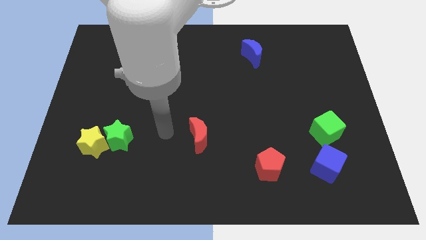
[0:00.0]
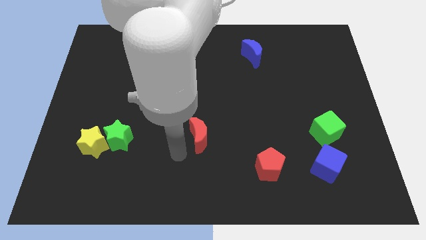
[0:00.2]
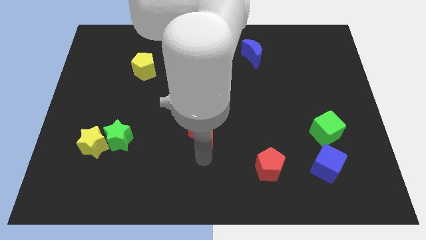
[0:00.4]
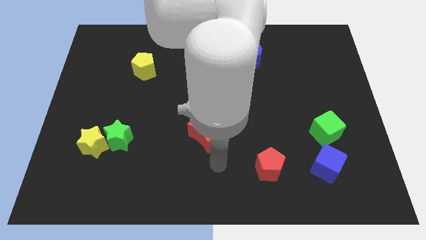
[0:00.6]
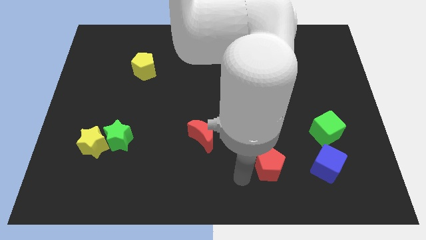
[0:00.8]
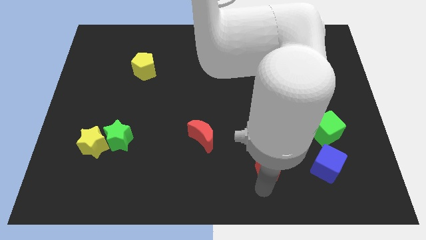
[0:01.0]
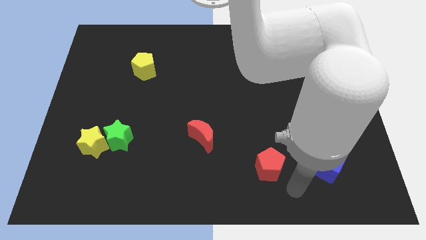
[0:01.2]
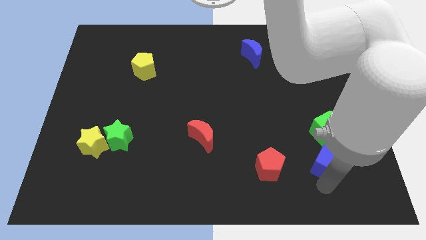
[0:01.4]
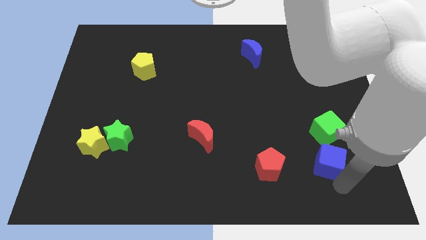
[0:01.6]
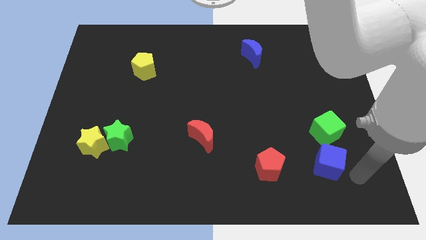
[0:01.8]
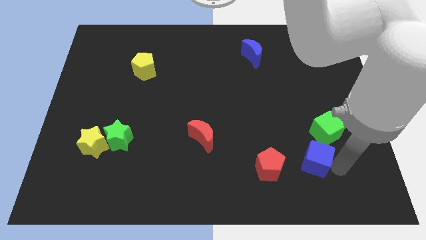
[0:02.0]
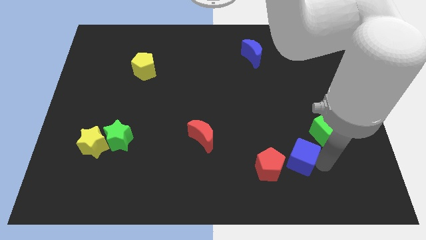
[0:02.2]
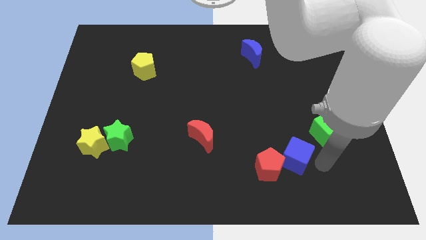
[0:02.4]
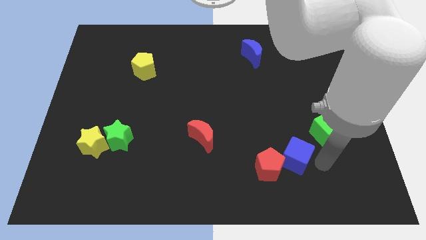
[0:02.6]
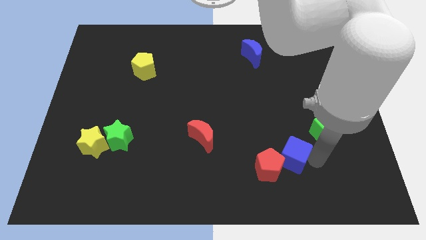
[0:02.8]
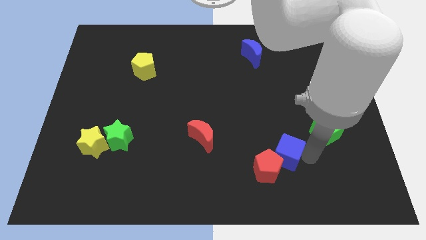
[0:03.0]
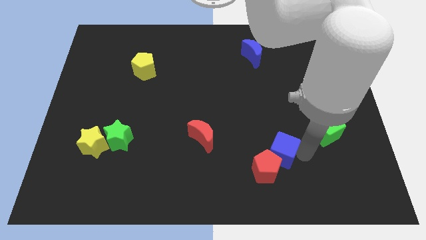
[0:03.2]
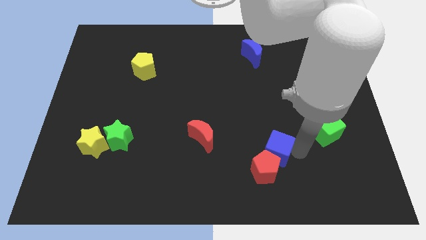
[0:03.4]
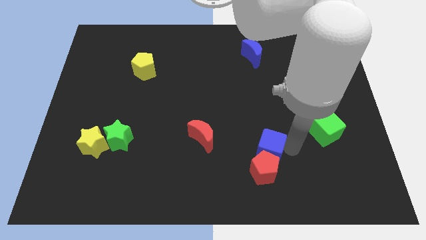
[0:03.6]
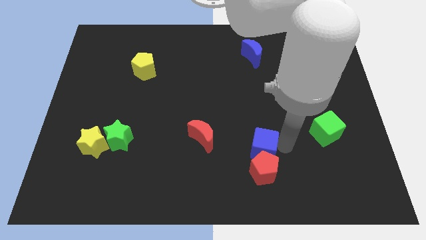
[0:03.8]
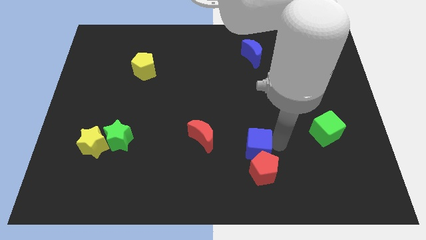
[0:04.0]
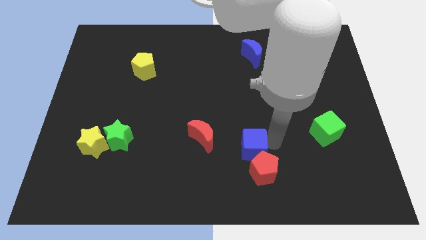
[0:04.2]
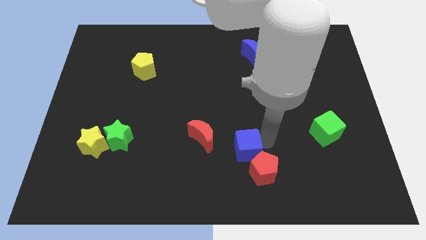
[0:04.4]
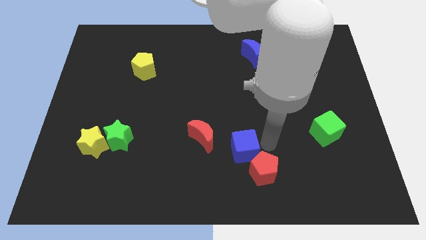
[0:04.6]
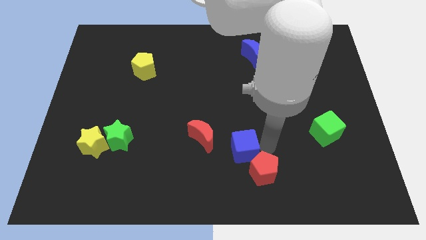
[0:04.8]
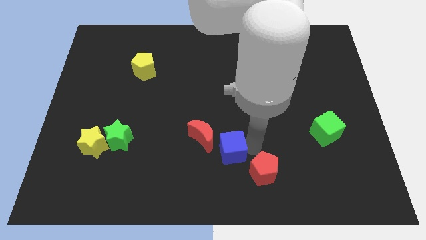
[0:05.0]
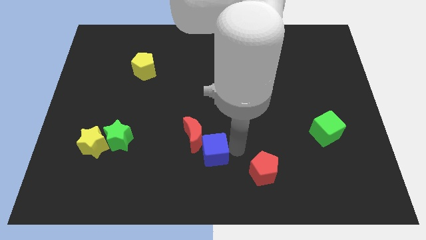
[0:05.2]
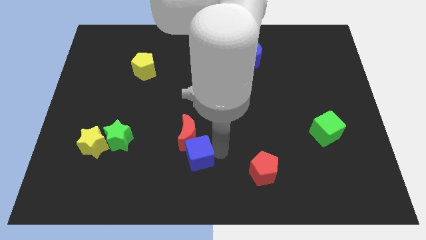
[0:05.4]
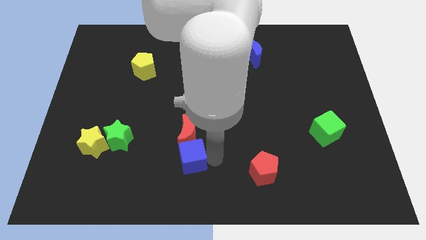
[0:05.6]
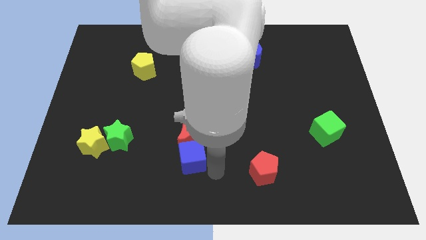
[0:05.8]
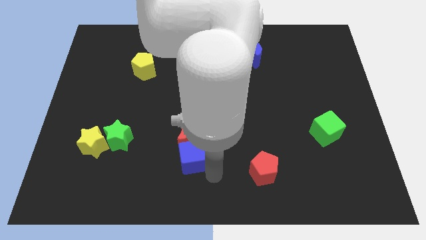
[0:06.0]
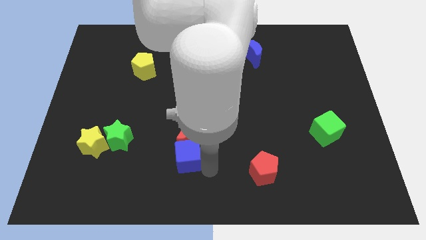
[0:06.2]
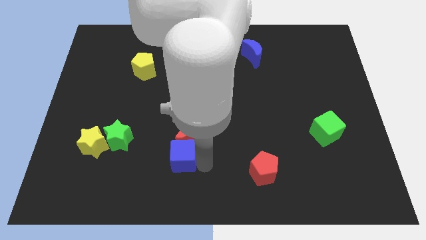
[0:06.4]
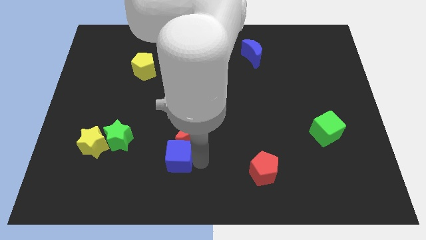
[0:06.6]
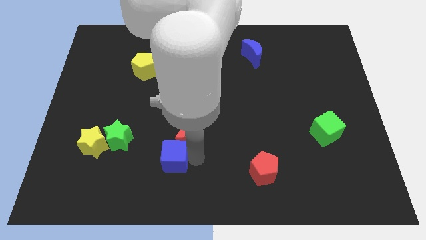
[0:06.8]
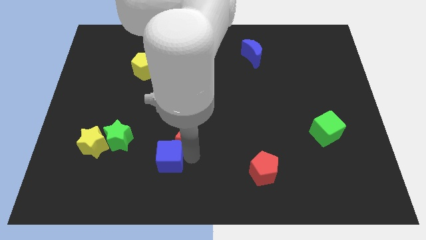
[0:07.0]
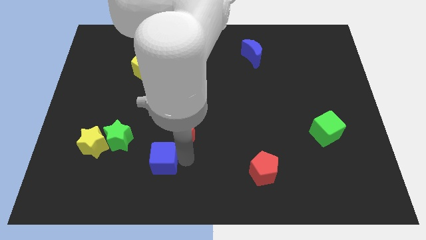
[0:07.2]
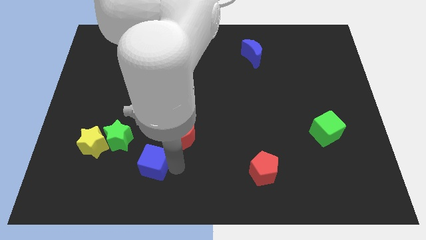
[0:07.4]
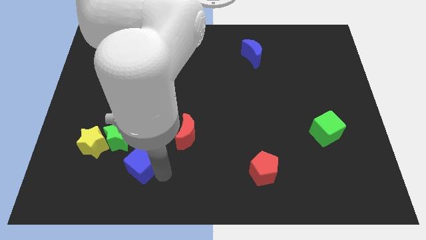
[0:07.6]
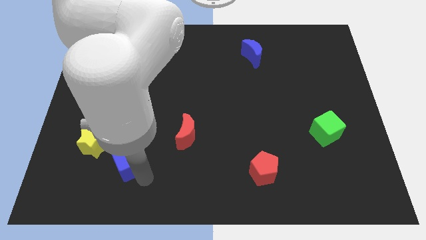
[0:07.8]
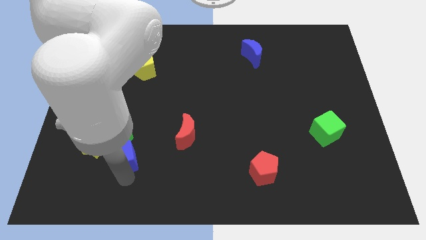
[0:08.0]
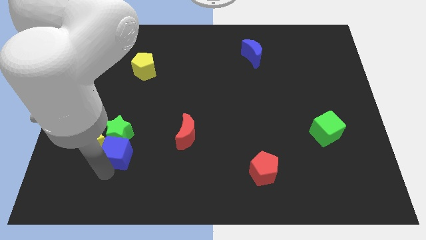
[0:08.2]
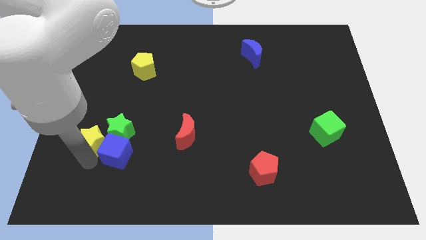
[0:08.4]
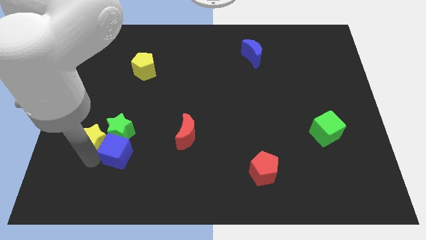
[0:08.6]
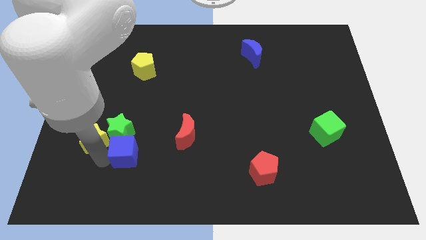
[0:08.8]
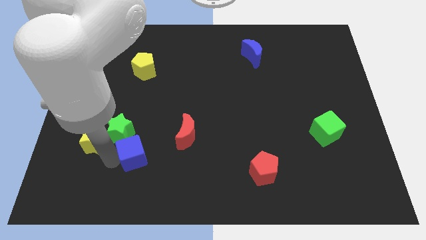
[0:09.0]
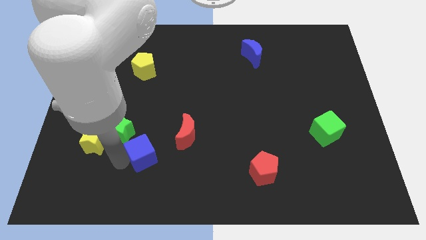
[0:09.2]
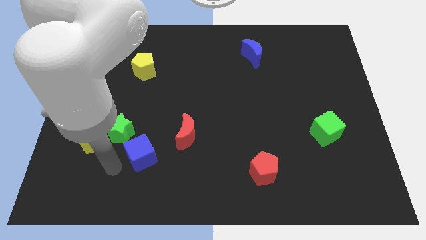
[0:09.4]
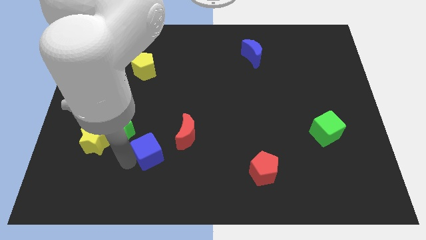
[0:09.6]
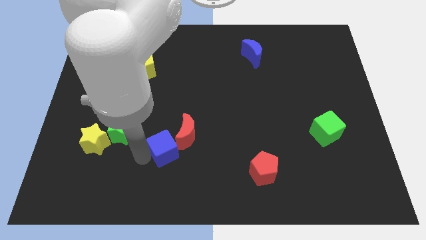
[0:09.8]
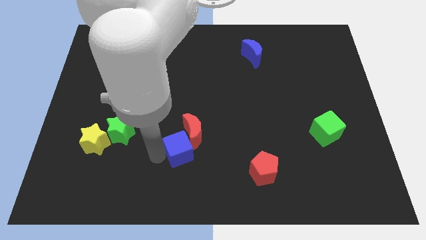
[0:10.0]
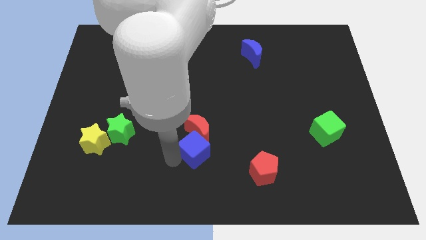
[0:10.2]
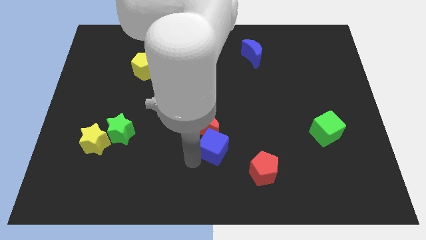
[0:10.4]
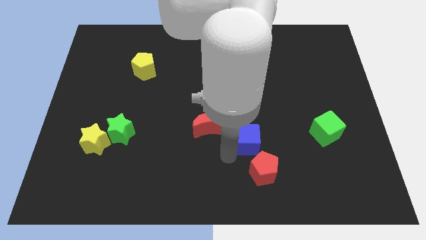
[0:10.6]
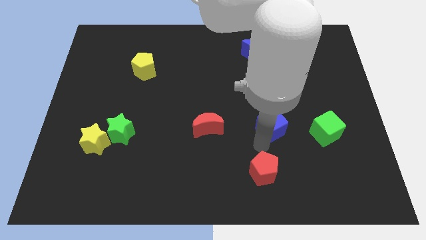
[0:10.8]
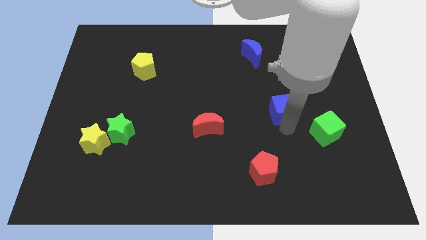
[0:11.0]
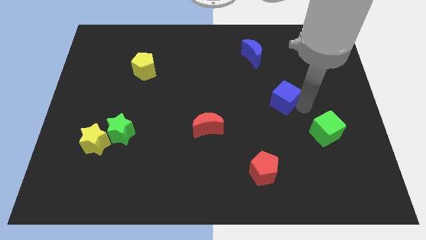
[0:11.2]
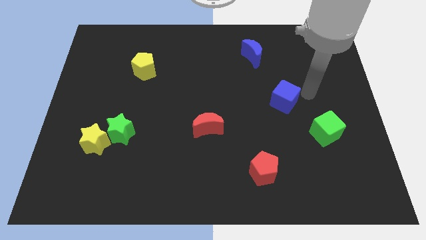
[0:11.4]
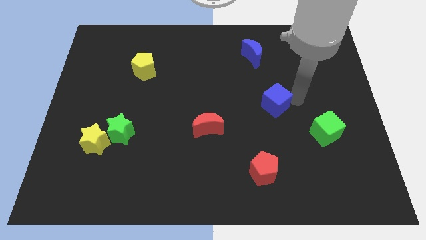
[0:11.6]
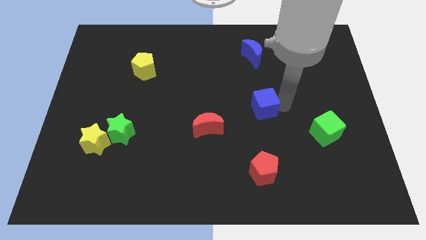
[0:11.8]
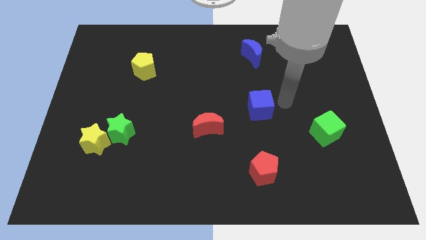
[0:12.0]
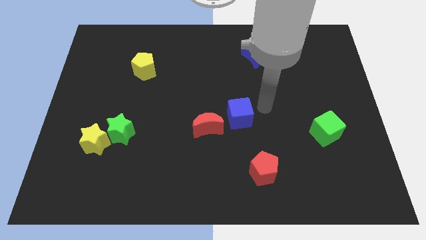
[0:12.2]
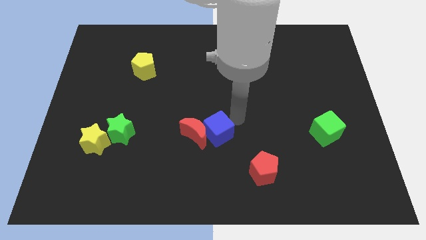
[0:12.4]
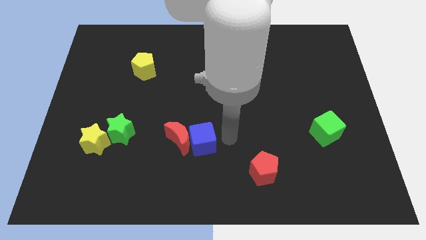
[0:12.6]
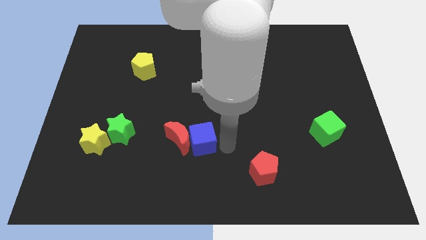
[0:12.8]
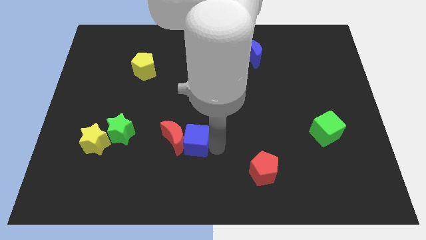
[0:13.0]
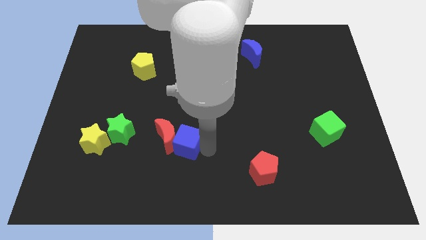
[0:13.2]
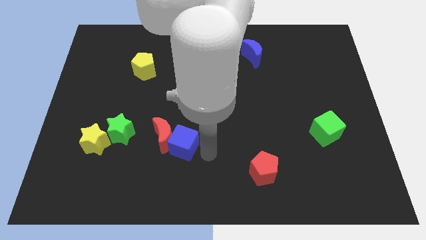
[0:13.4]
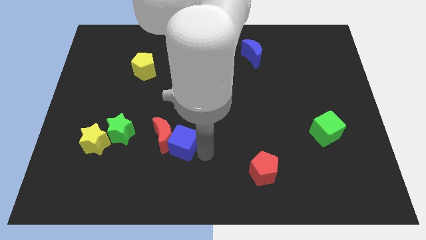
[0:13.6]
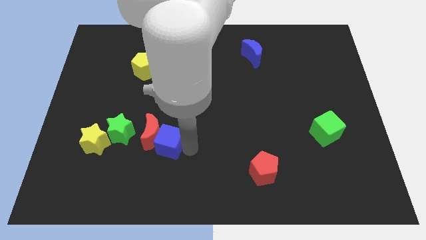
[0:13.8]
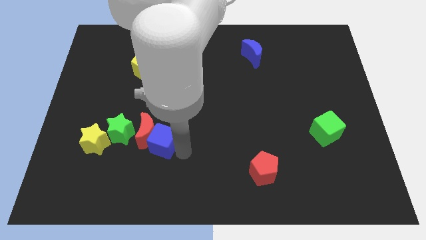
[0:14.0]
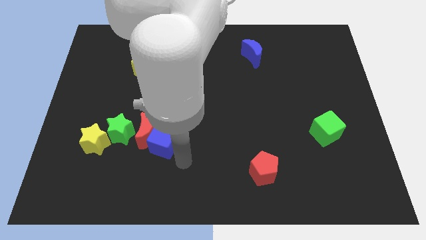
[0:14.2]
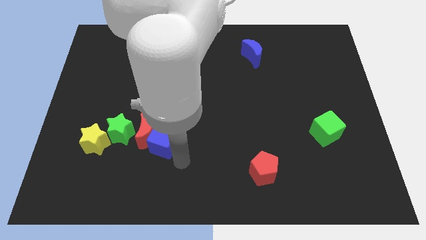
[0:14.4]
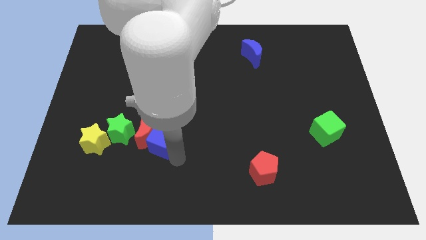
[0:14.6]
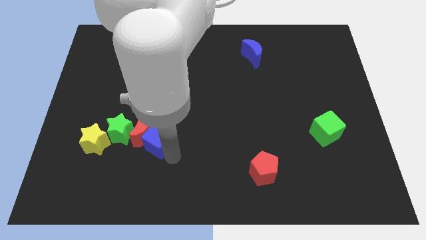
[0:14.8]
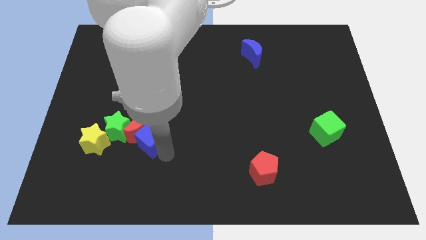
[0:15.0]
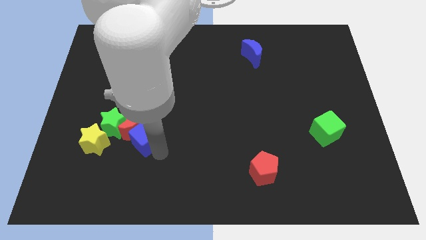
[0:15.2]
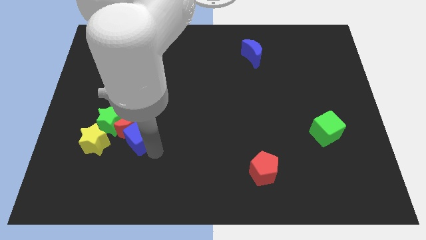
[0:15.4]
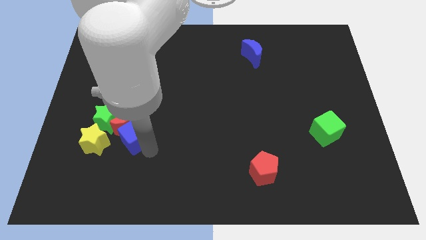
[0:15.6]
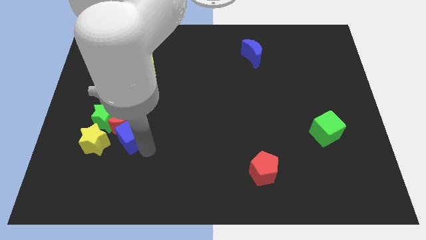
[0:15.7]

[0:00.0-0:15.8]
slide the blue cube to the top right of the yellow star
